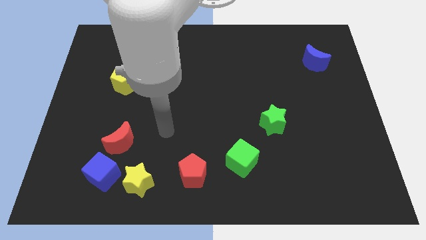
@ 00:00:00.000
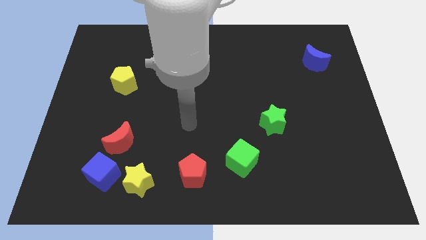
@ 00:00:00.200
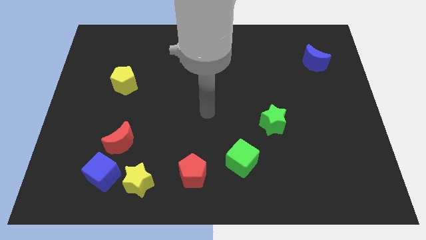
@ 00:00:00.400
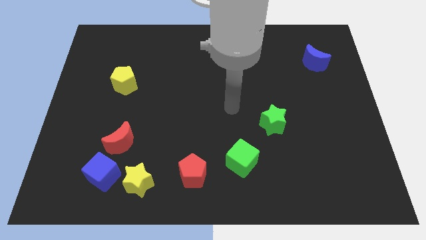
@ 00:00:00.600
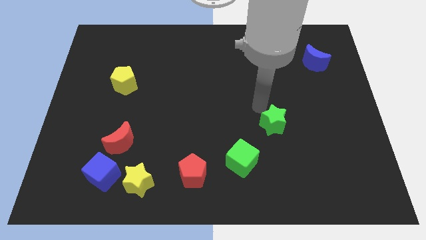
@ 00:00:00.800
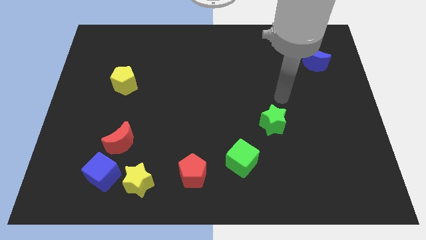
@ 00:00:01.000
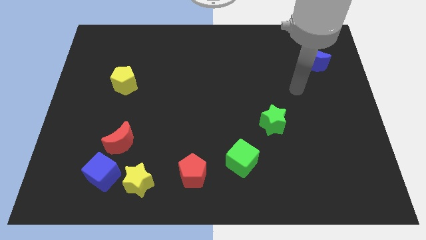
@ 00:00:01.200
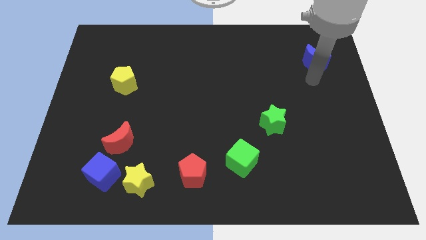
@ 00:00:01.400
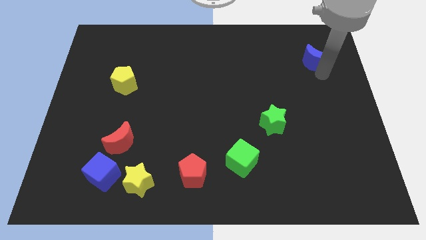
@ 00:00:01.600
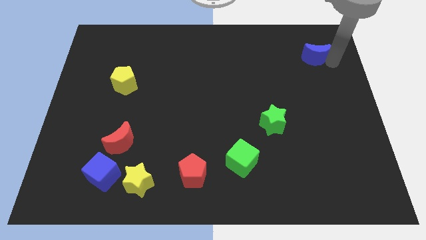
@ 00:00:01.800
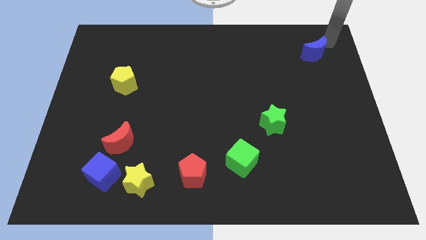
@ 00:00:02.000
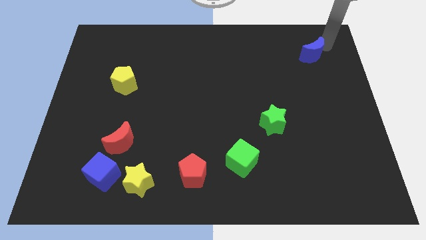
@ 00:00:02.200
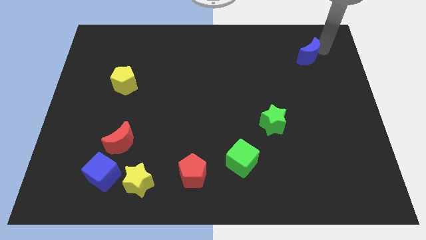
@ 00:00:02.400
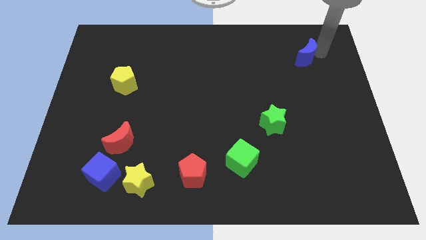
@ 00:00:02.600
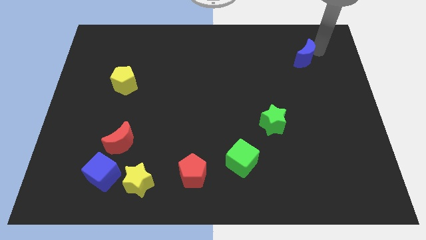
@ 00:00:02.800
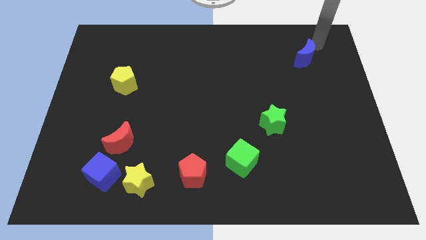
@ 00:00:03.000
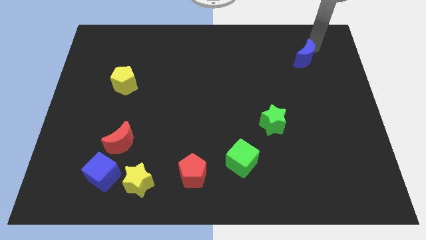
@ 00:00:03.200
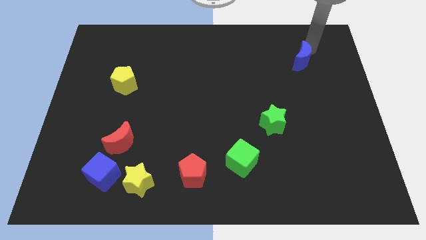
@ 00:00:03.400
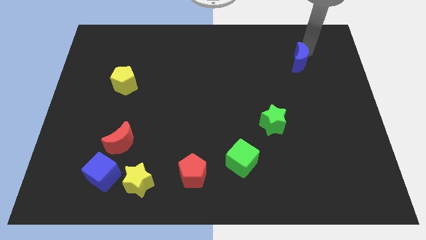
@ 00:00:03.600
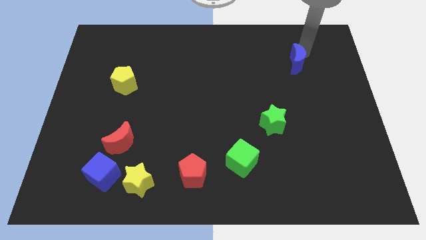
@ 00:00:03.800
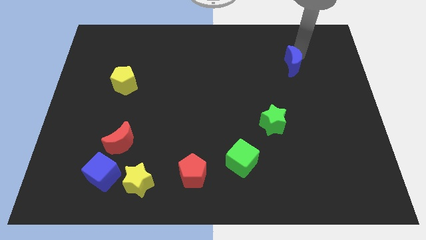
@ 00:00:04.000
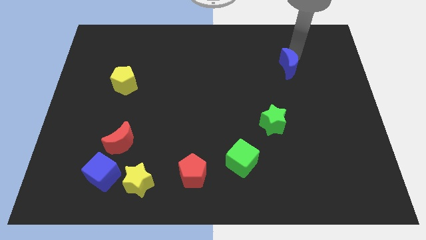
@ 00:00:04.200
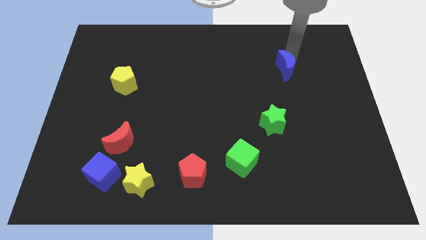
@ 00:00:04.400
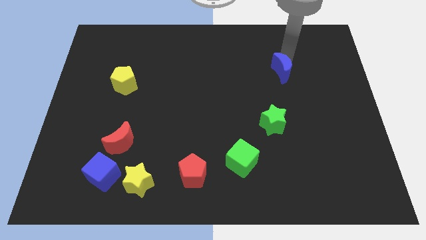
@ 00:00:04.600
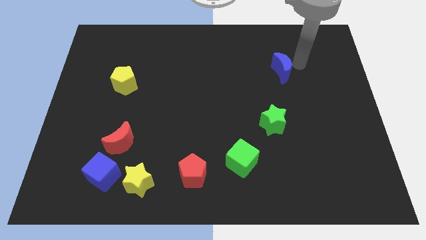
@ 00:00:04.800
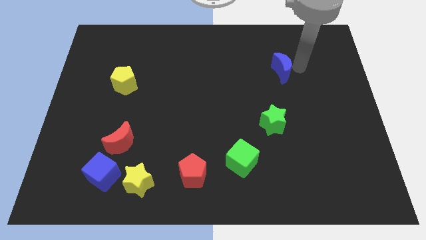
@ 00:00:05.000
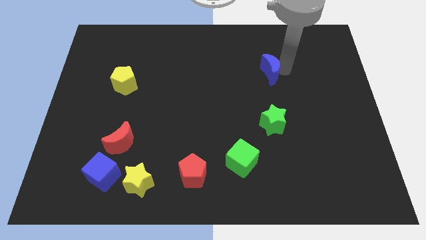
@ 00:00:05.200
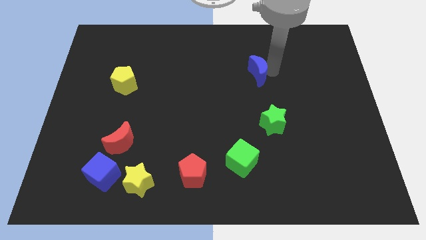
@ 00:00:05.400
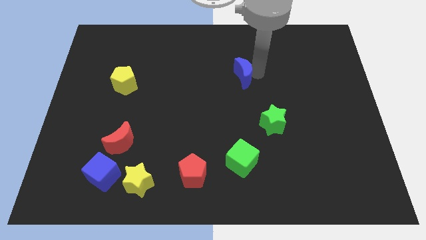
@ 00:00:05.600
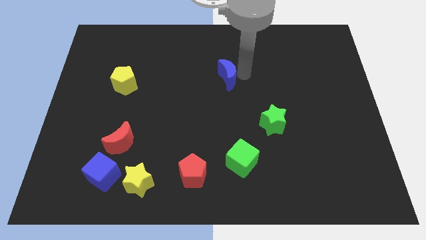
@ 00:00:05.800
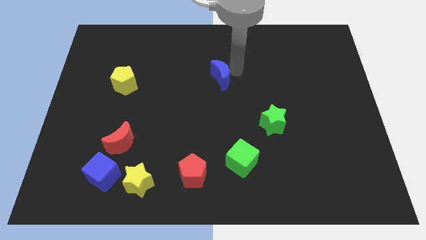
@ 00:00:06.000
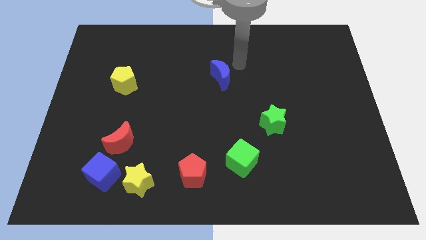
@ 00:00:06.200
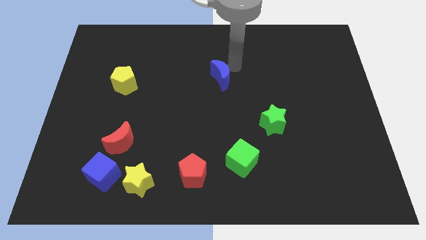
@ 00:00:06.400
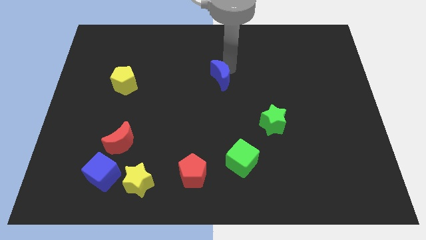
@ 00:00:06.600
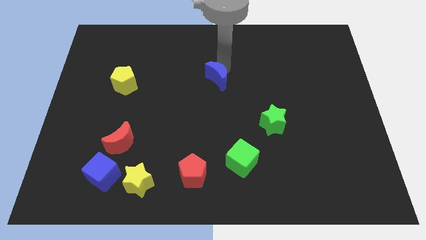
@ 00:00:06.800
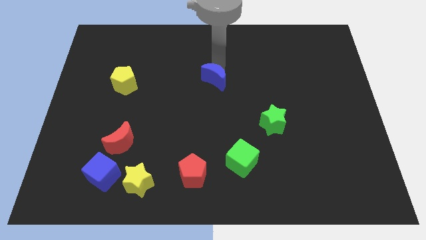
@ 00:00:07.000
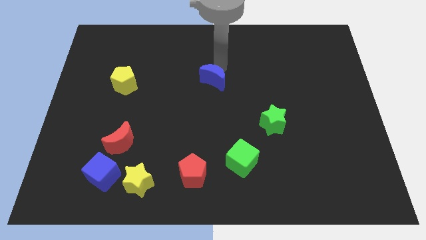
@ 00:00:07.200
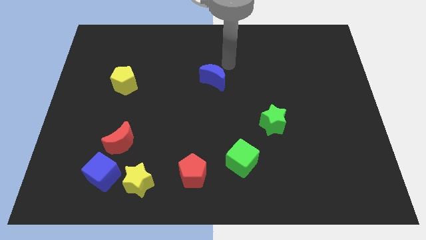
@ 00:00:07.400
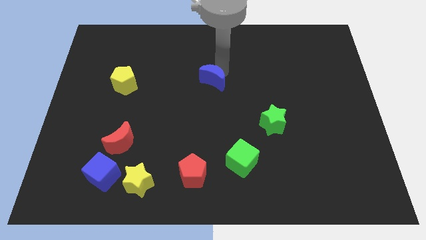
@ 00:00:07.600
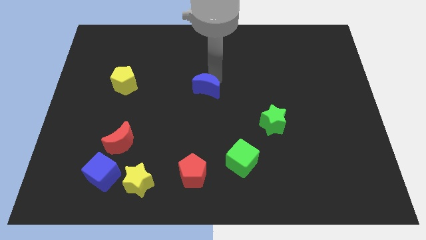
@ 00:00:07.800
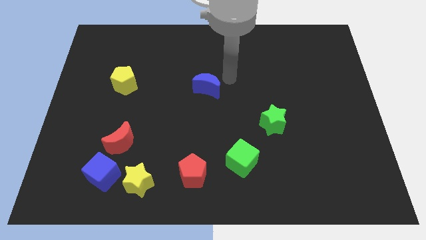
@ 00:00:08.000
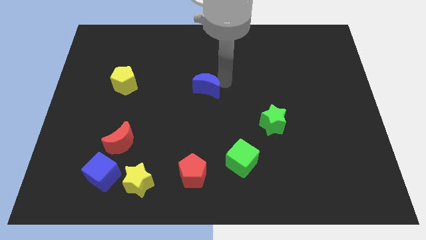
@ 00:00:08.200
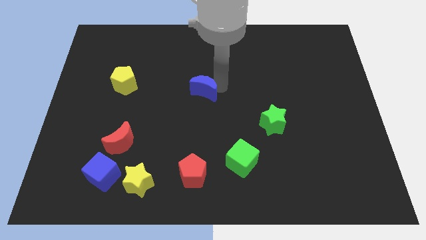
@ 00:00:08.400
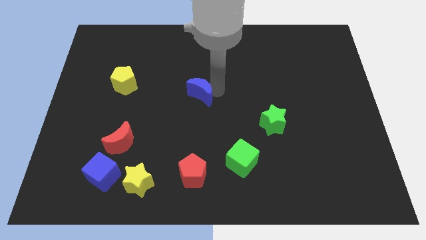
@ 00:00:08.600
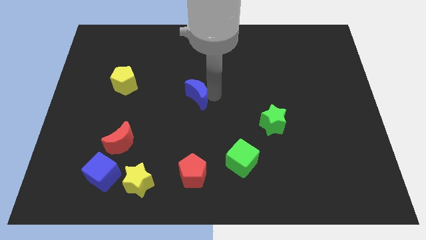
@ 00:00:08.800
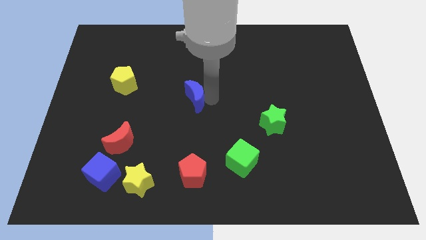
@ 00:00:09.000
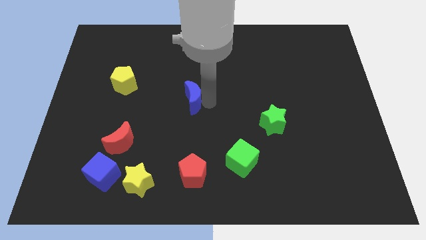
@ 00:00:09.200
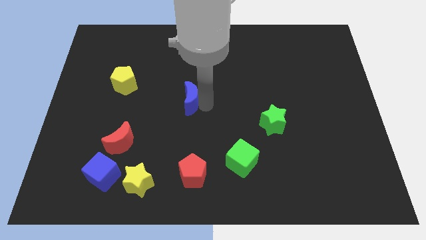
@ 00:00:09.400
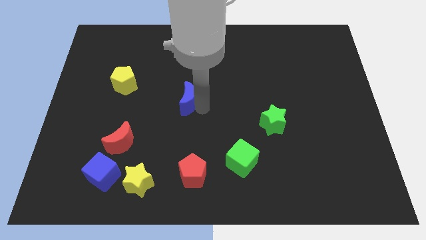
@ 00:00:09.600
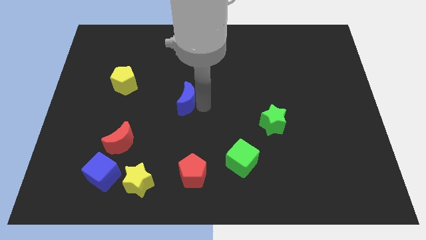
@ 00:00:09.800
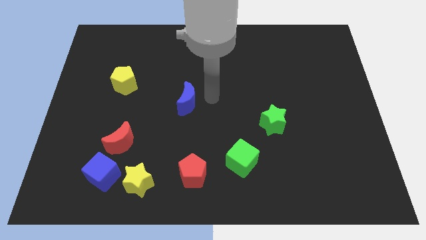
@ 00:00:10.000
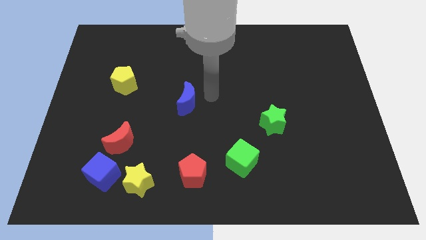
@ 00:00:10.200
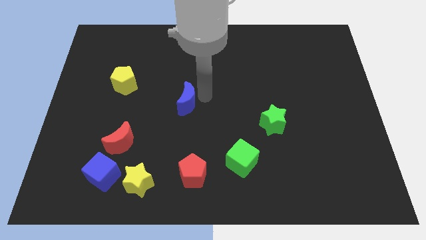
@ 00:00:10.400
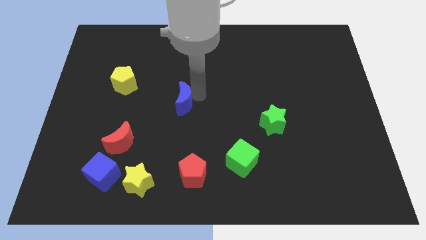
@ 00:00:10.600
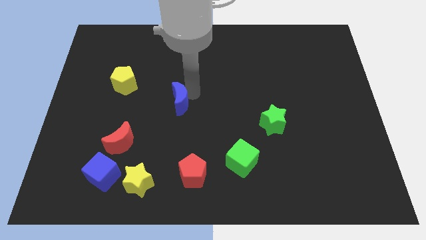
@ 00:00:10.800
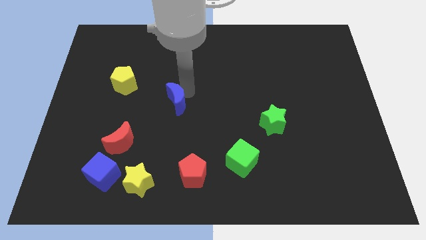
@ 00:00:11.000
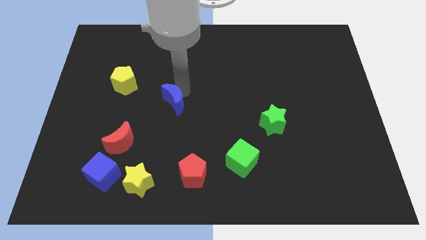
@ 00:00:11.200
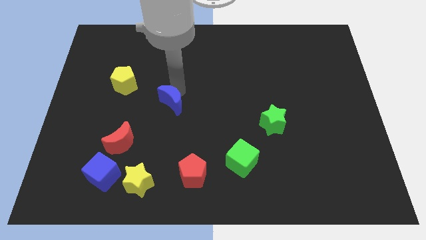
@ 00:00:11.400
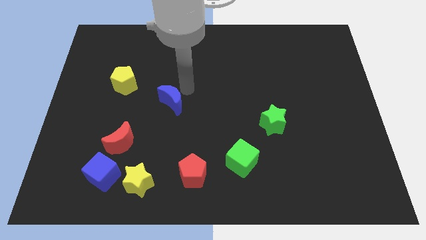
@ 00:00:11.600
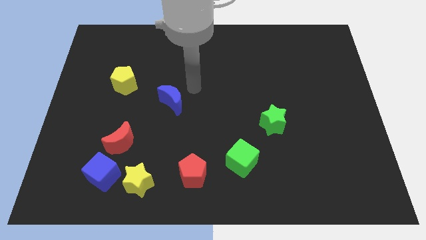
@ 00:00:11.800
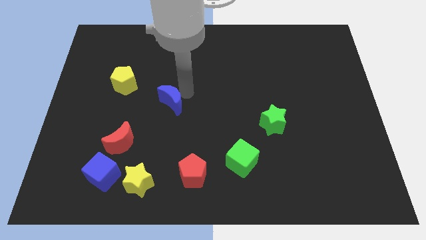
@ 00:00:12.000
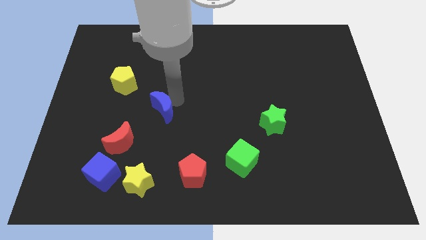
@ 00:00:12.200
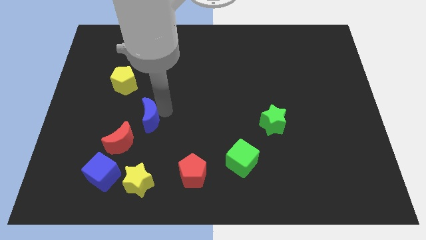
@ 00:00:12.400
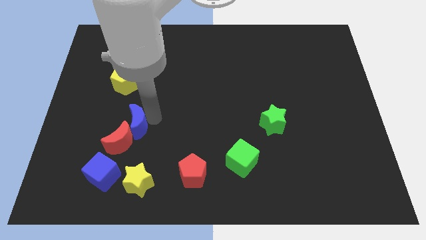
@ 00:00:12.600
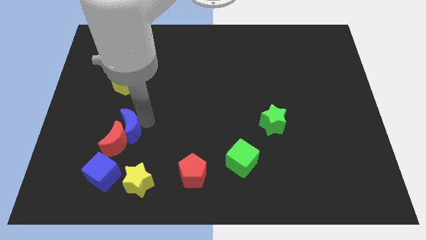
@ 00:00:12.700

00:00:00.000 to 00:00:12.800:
push the blue moon to the top side of the blue cube
